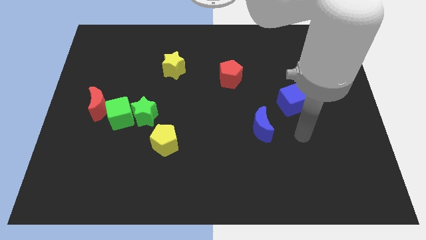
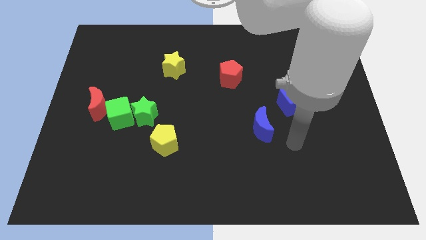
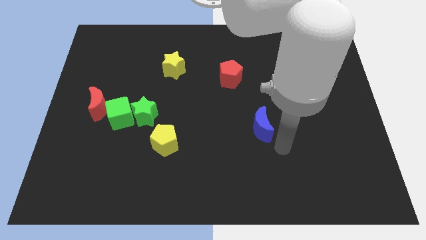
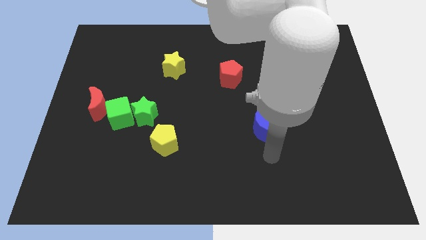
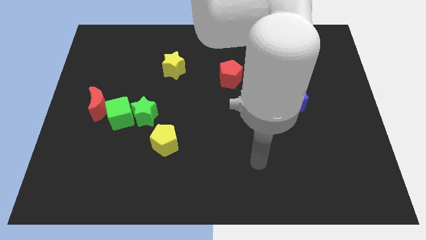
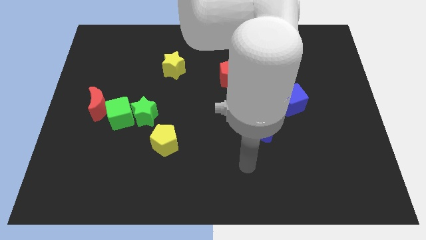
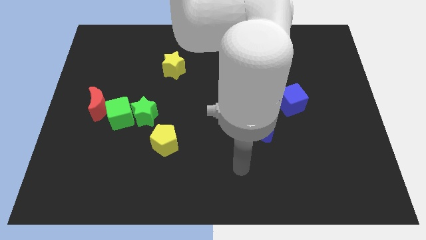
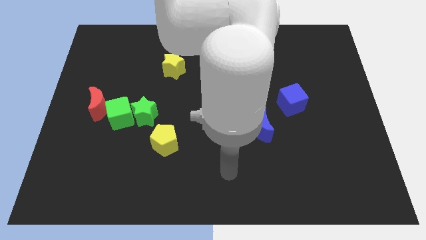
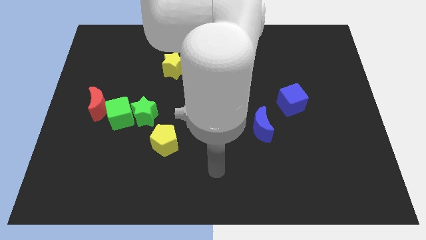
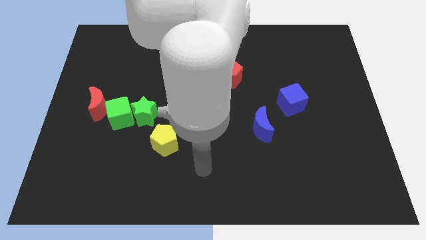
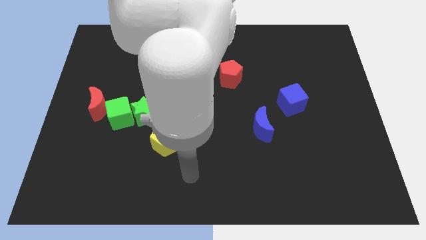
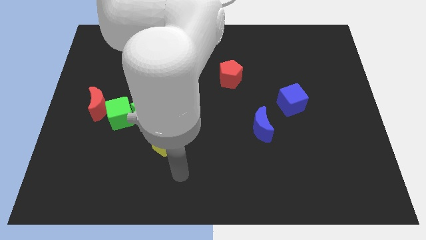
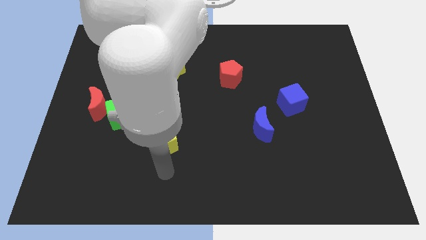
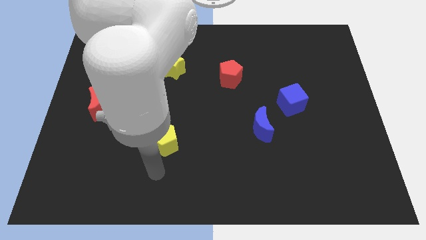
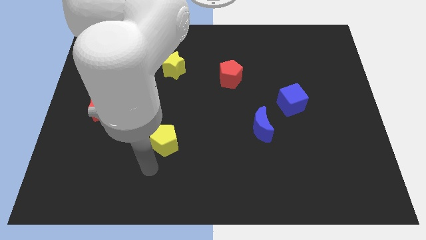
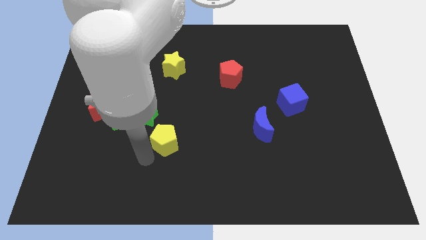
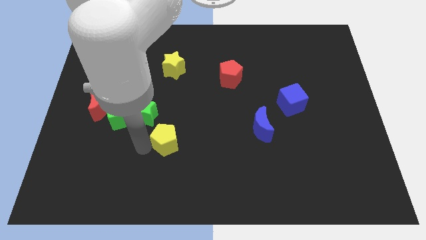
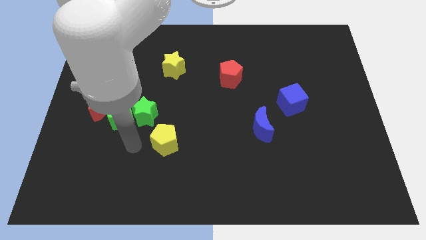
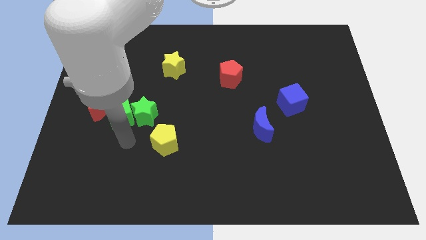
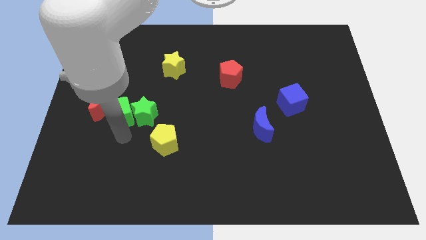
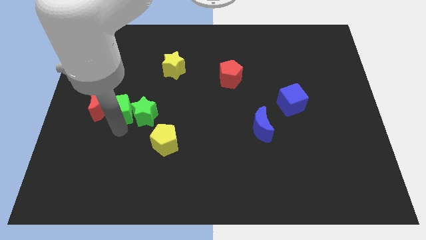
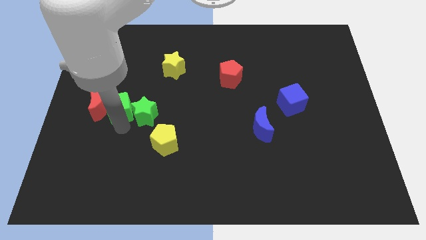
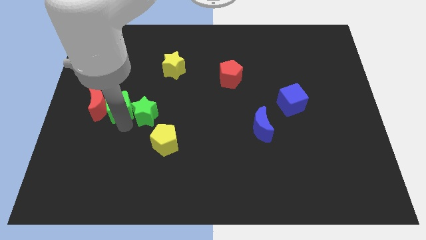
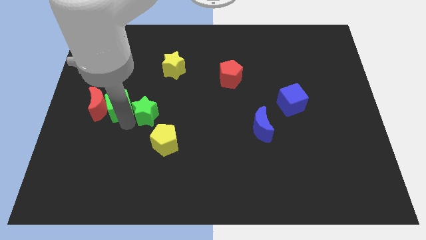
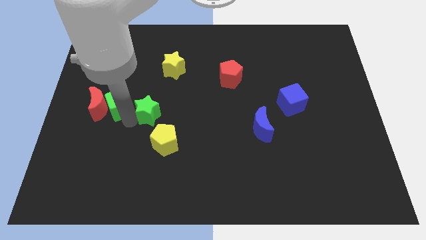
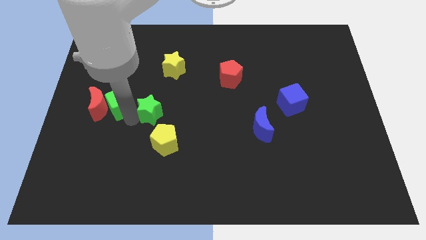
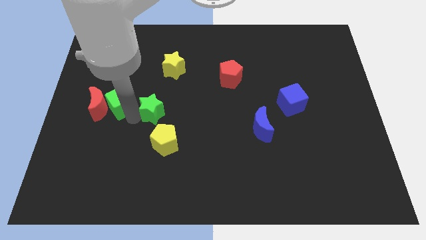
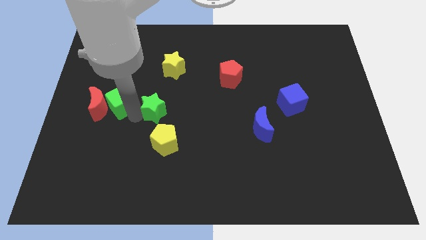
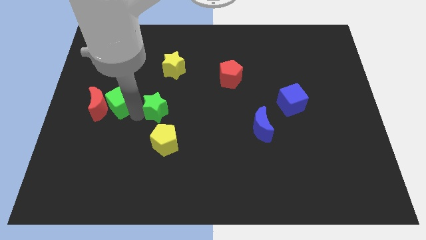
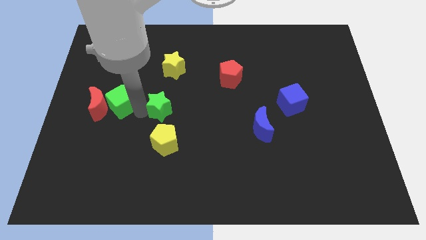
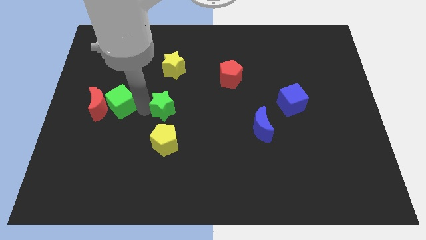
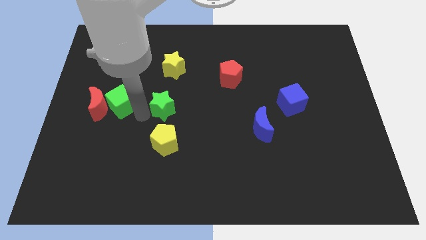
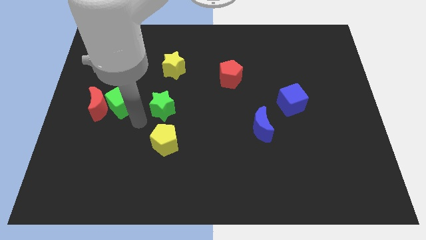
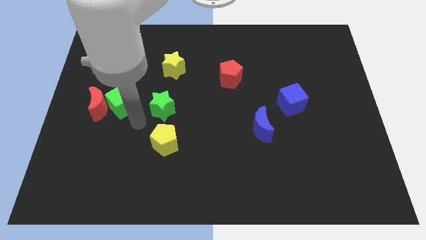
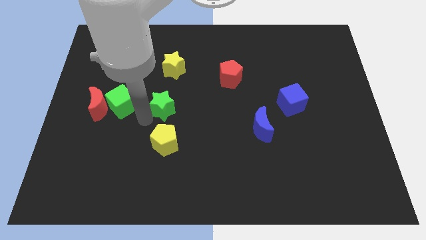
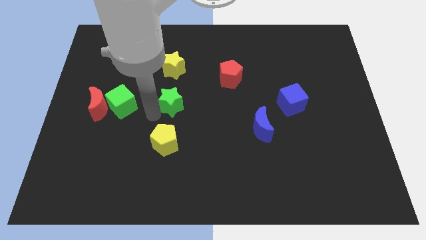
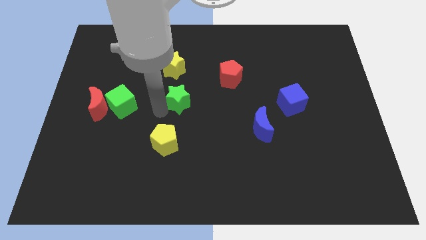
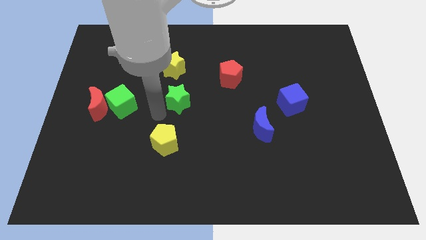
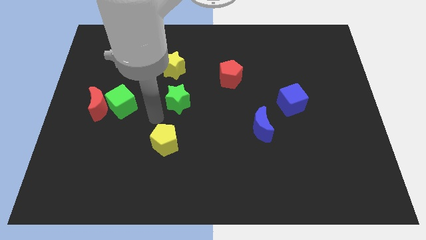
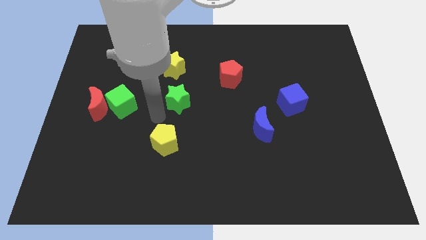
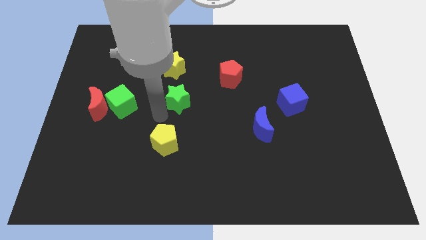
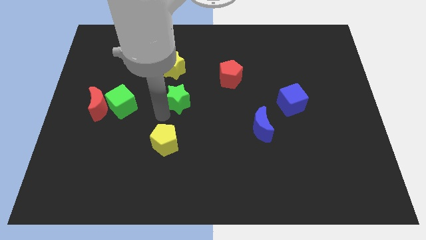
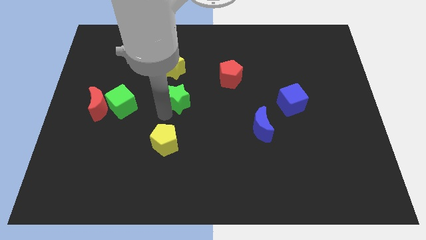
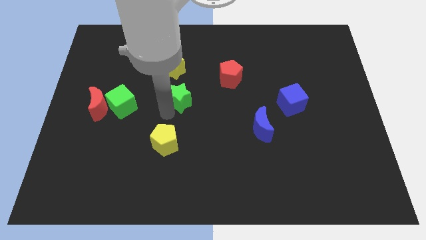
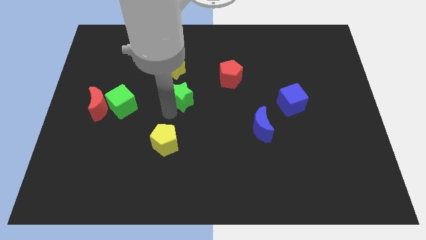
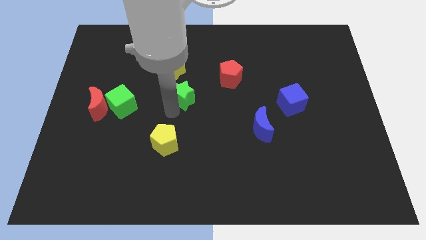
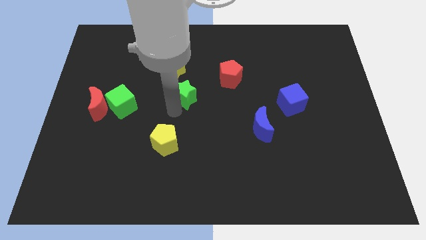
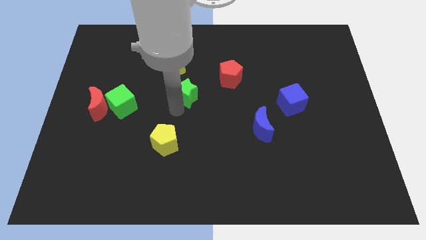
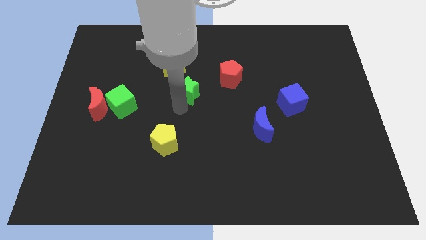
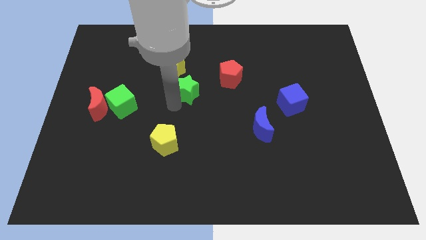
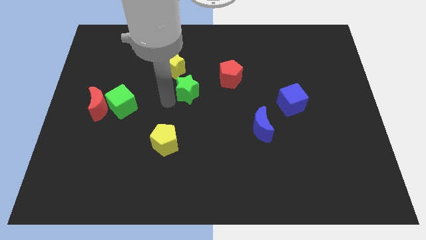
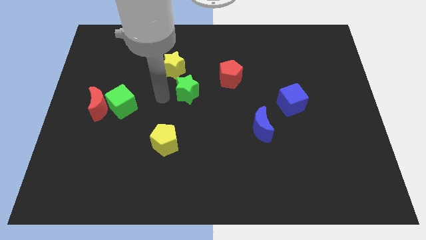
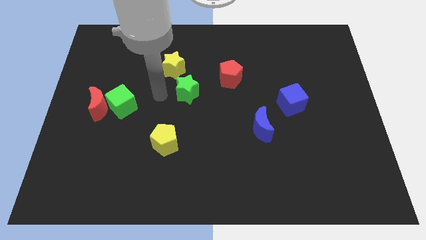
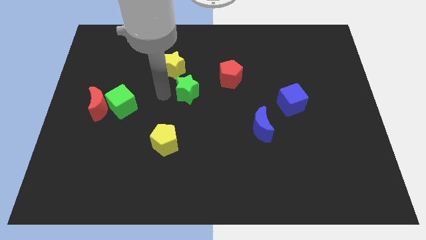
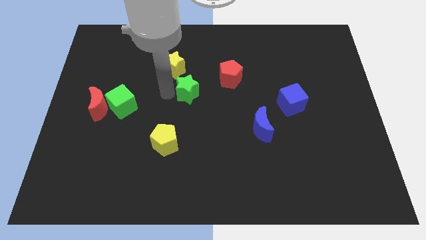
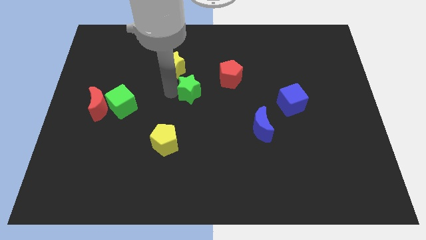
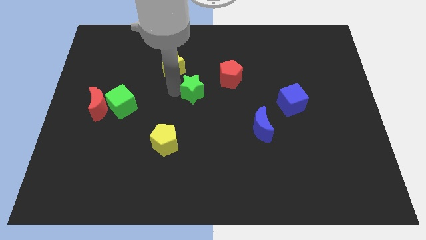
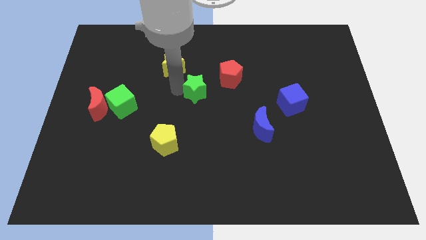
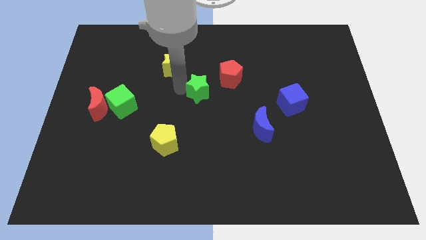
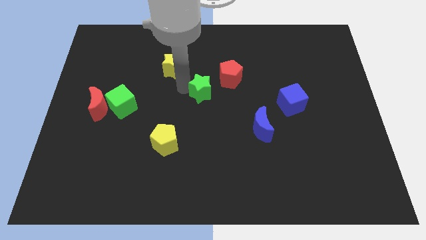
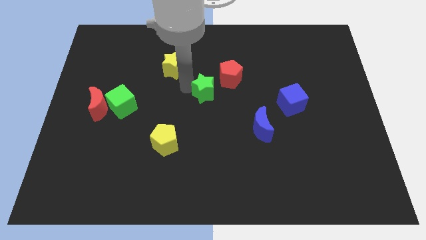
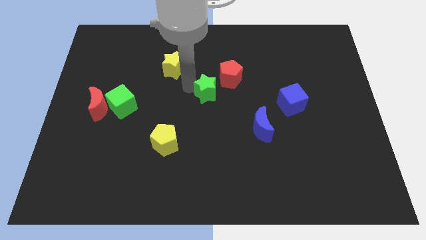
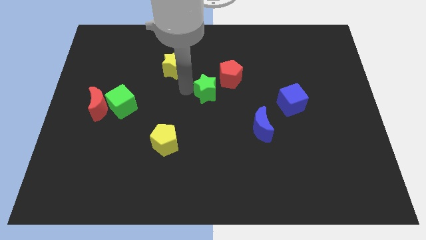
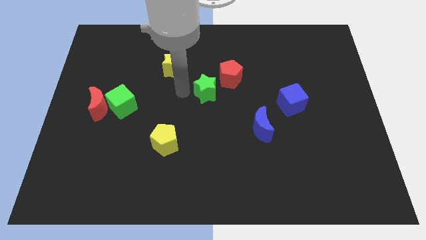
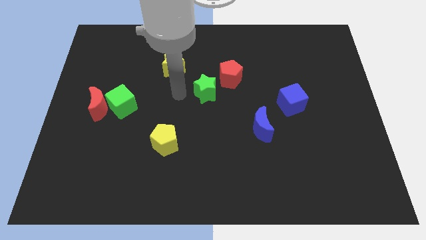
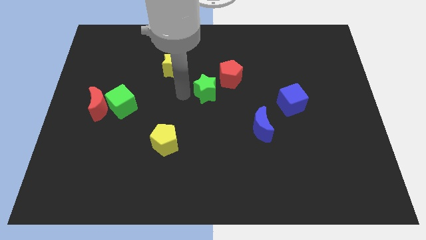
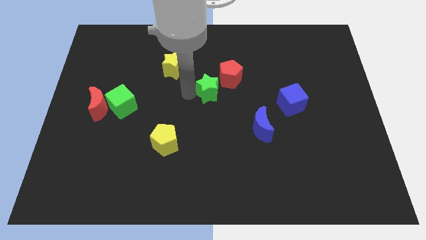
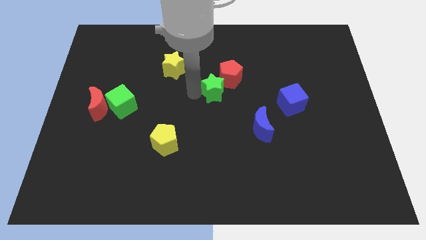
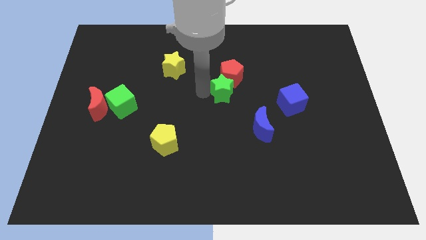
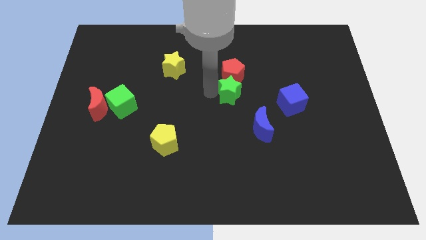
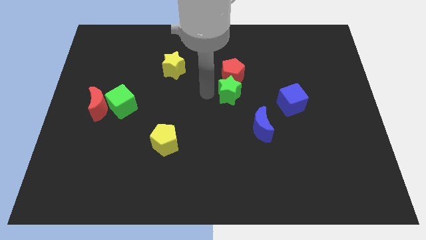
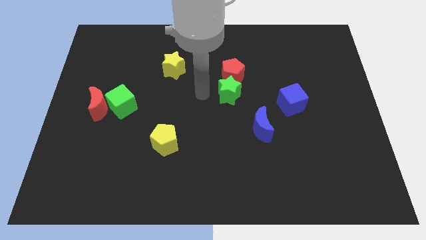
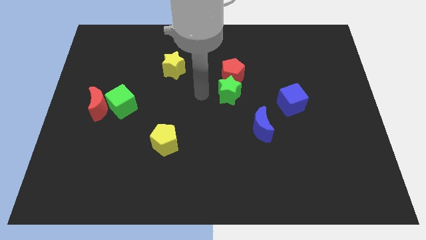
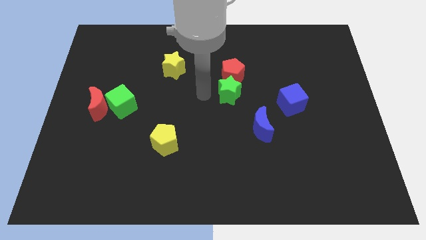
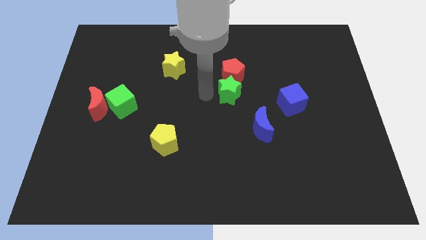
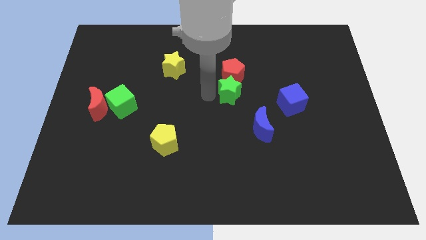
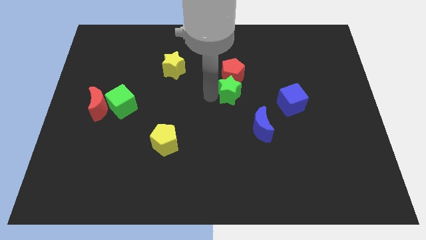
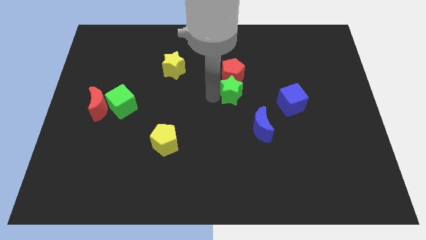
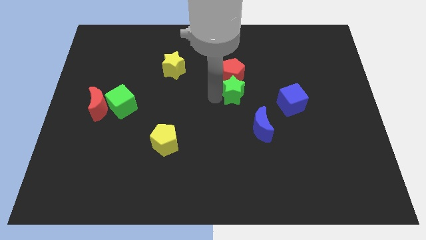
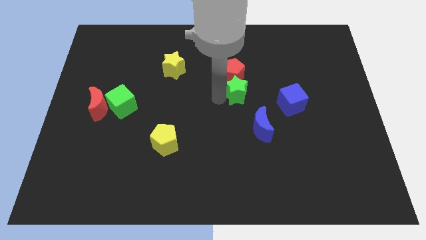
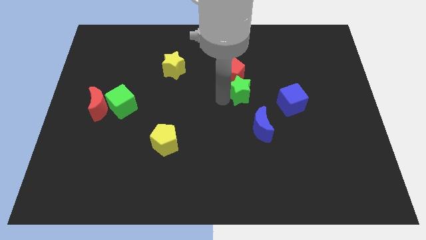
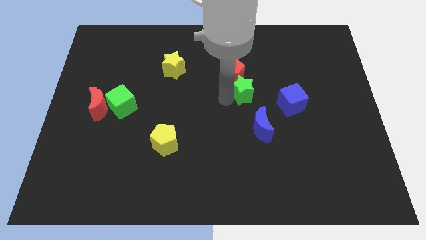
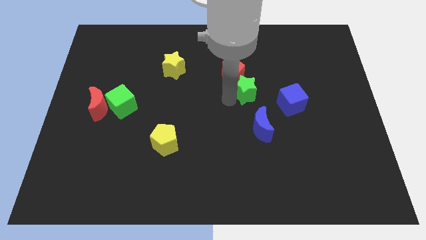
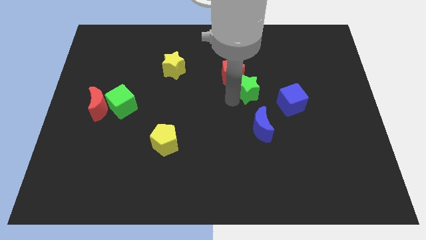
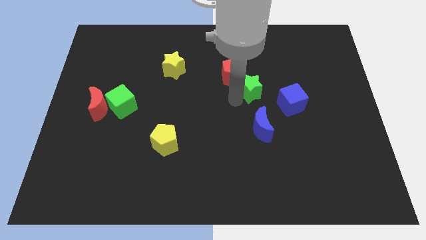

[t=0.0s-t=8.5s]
move the green star to the top left side of the blue cube
